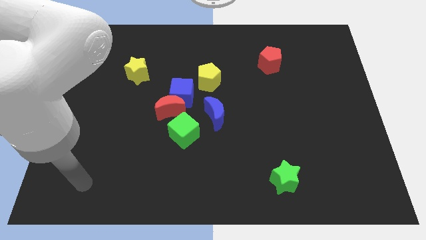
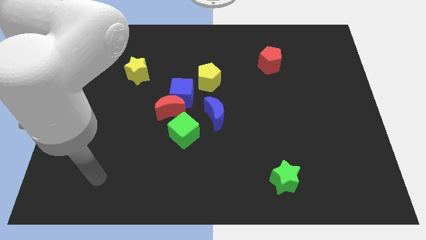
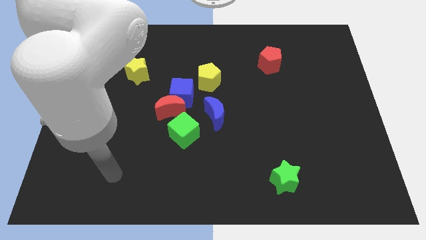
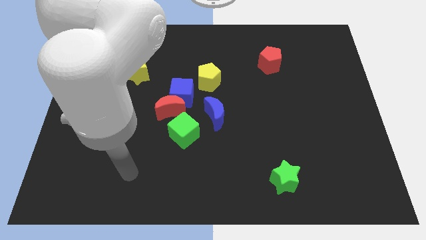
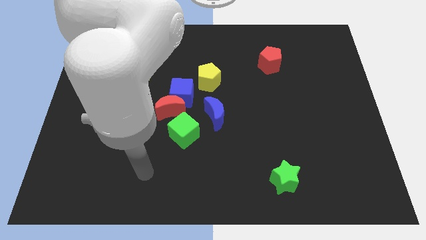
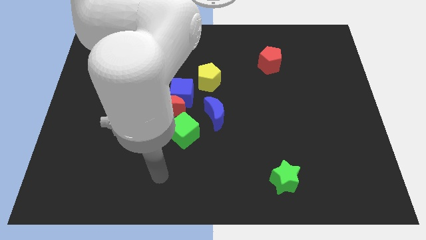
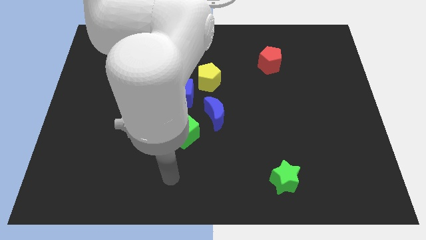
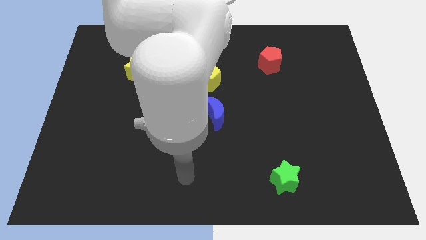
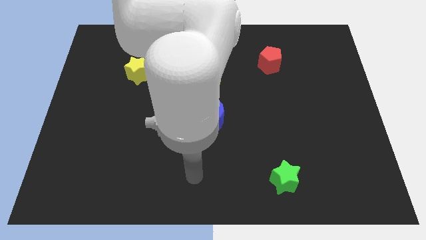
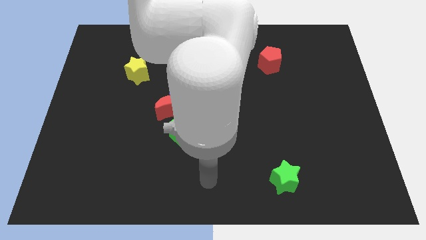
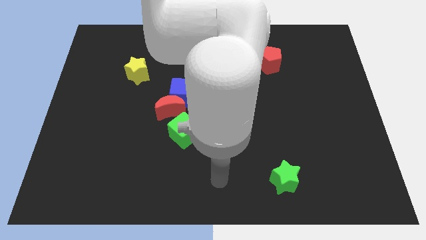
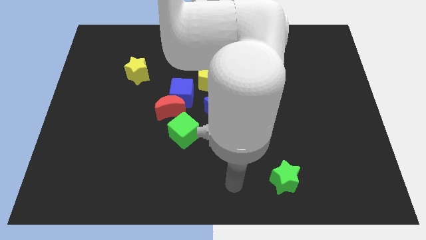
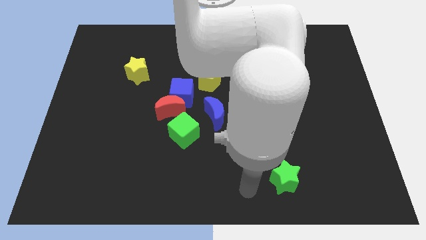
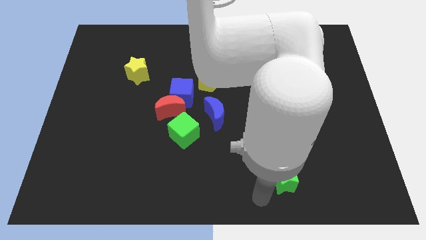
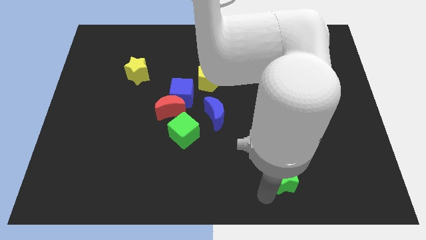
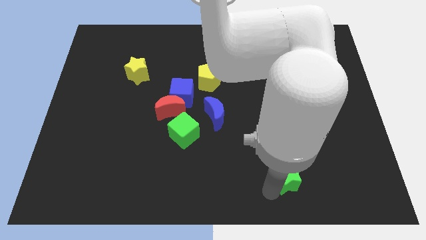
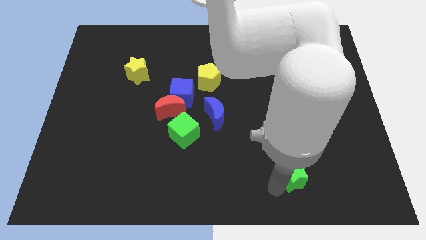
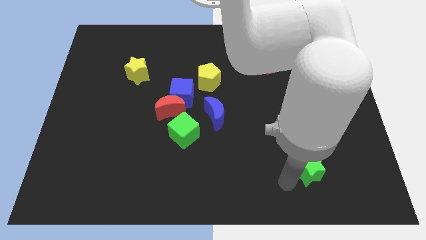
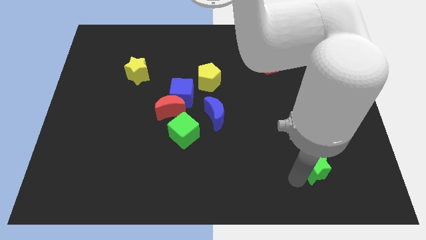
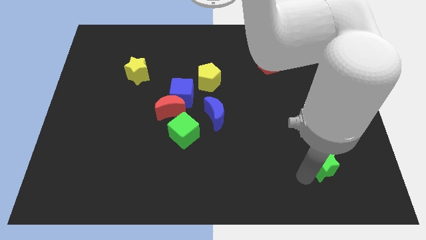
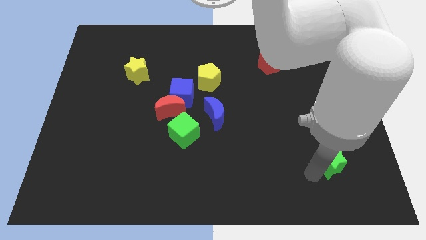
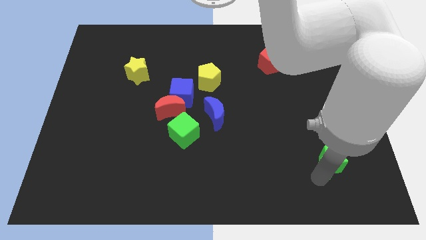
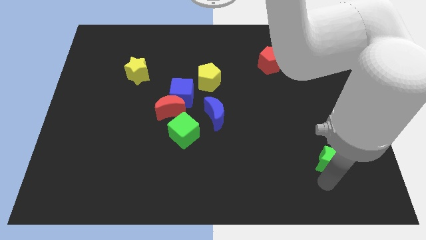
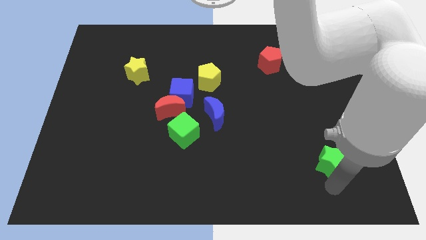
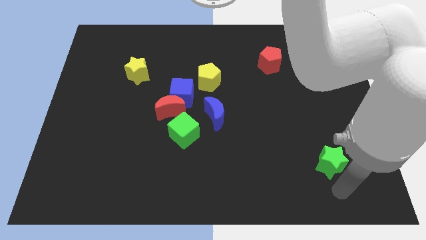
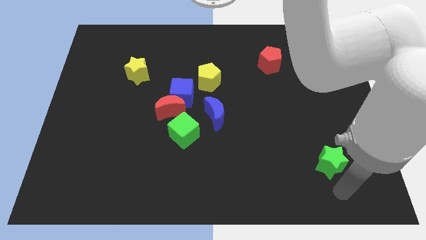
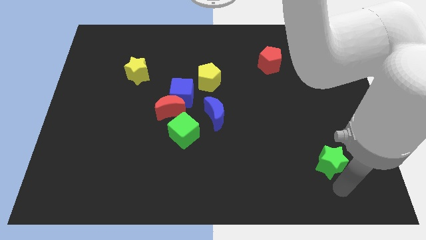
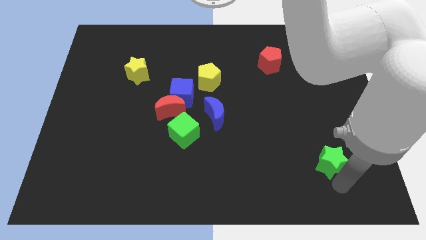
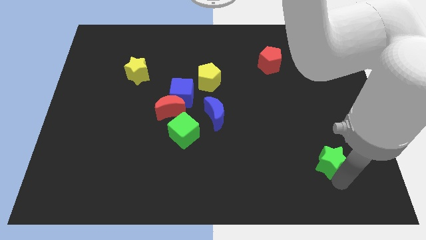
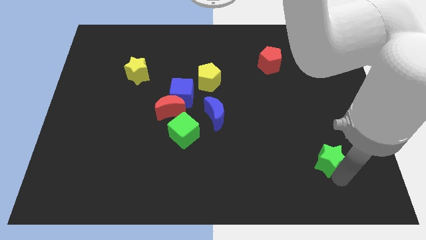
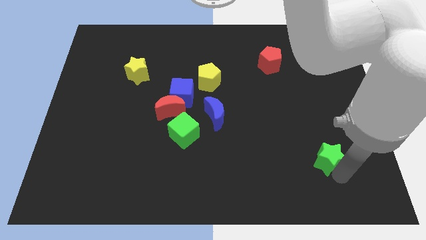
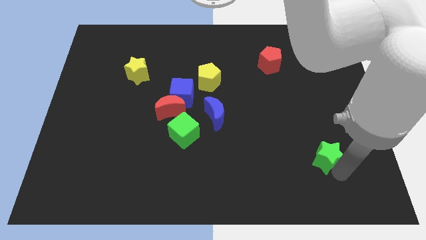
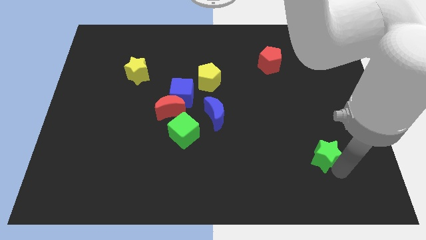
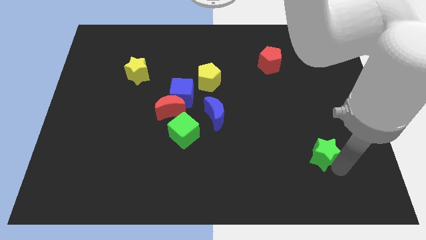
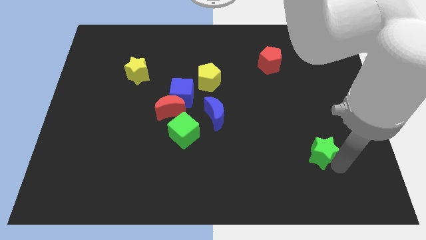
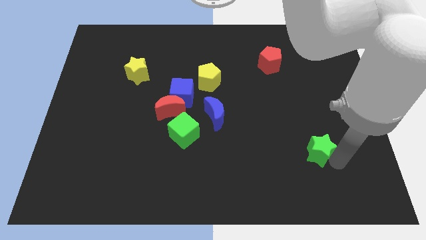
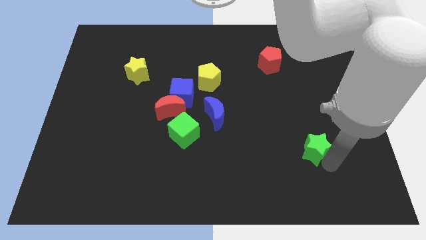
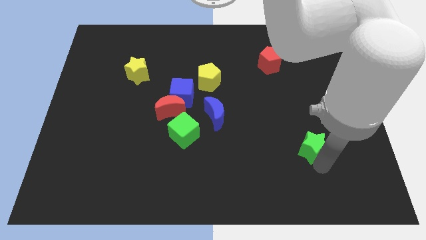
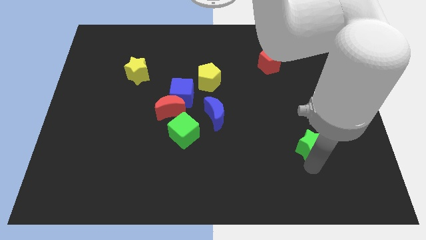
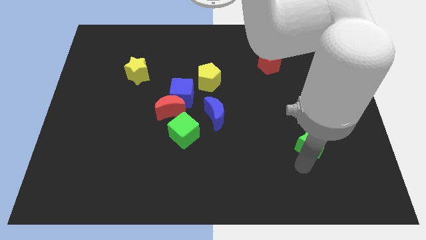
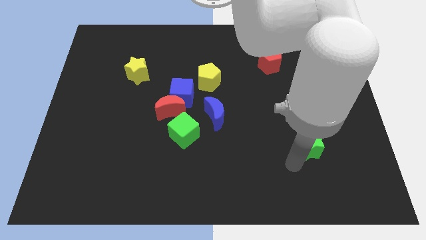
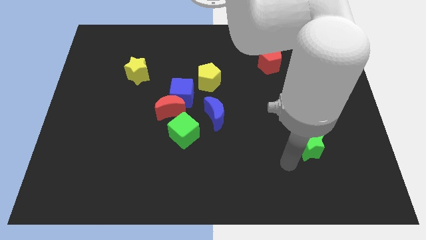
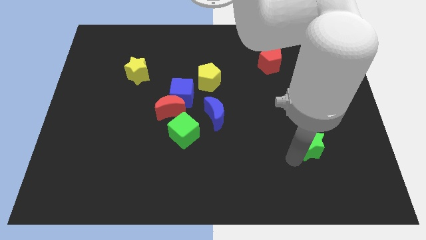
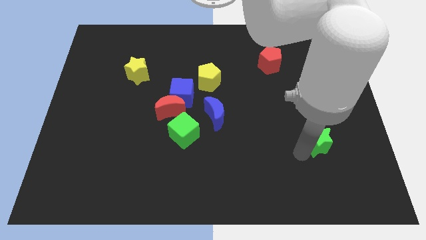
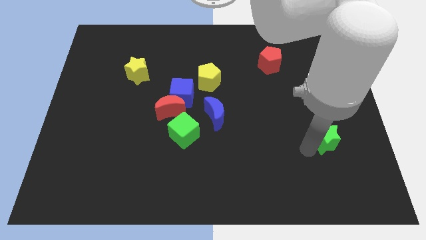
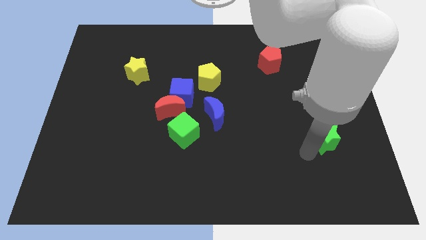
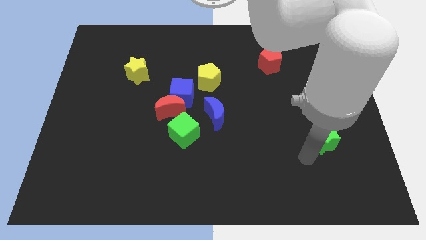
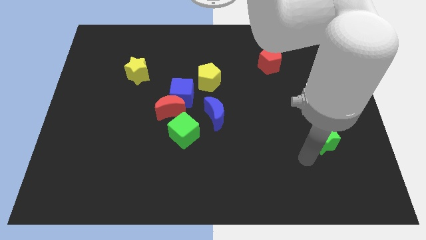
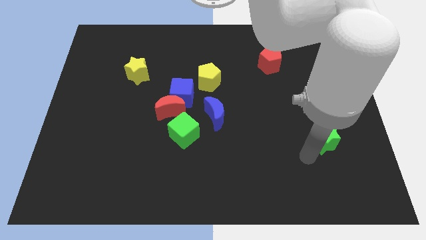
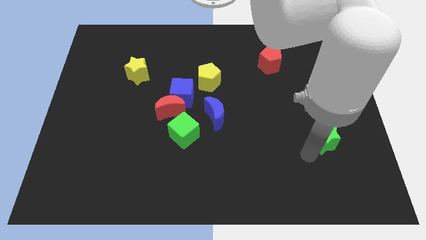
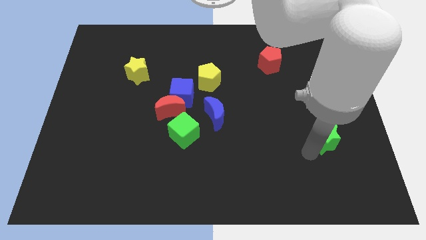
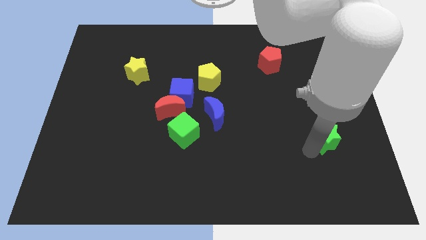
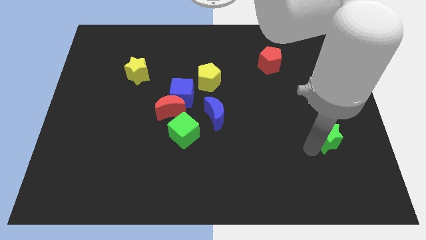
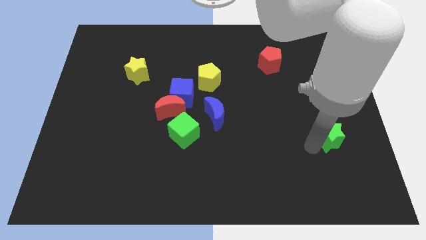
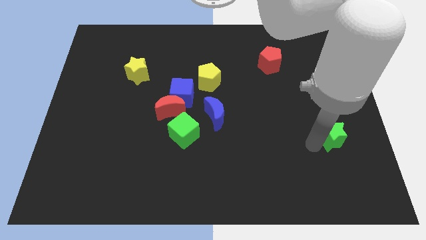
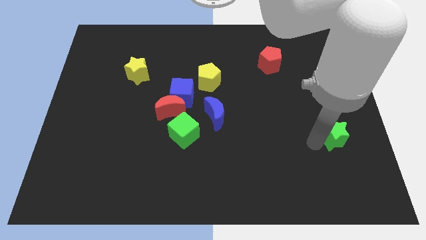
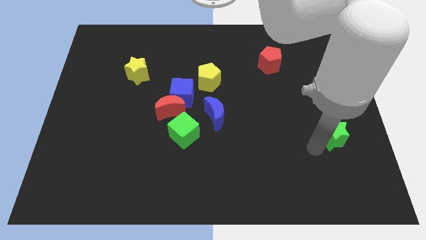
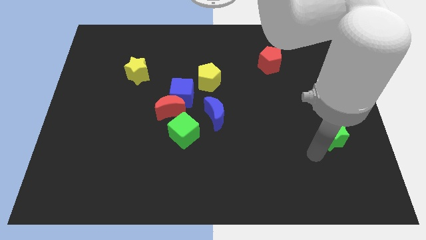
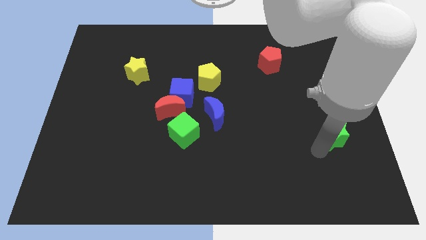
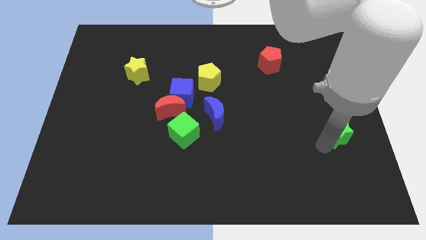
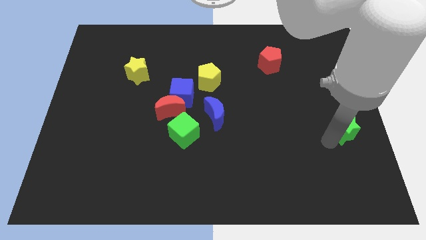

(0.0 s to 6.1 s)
move the green star to the right side of the board
